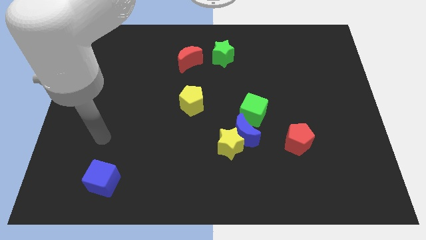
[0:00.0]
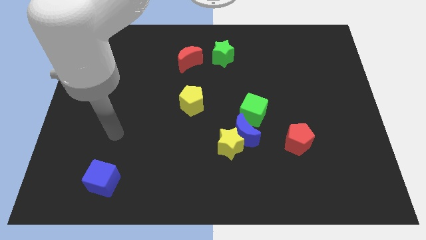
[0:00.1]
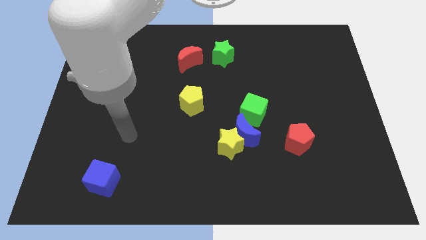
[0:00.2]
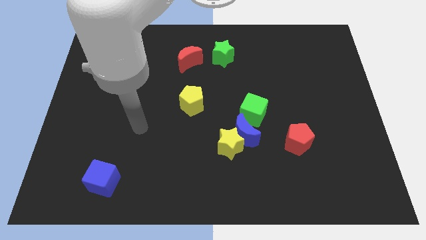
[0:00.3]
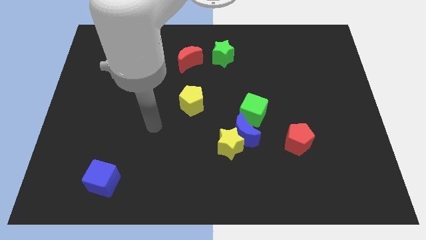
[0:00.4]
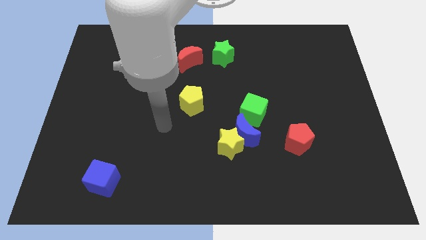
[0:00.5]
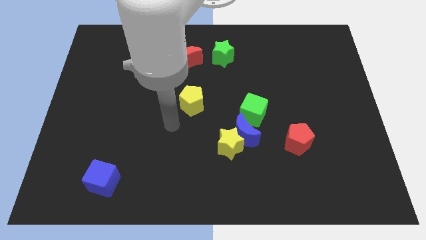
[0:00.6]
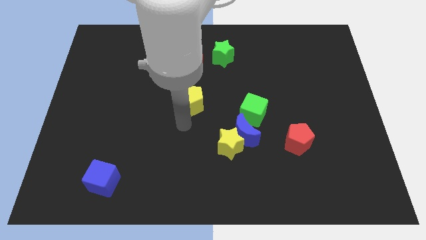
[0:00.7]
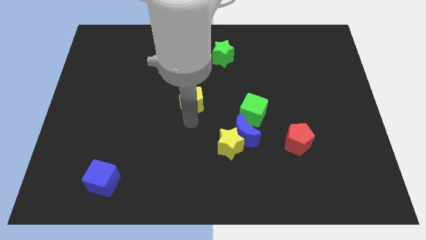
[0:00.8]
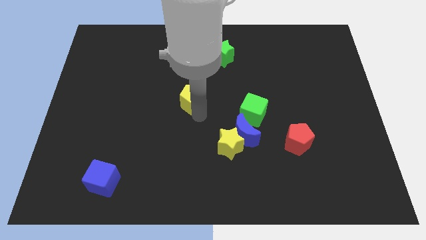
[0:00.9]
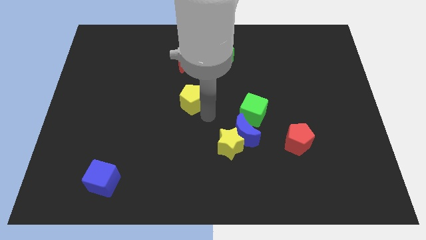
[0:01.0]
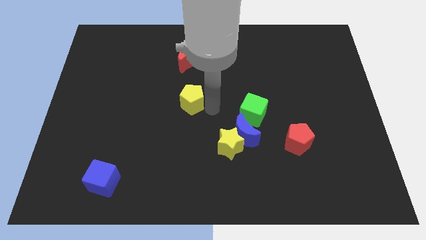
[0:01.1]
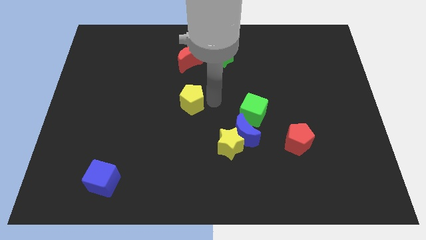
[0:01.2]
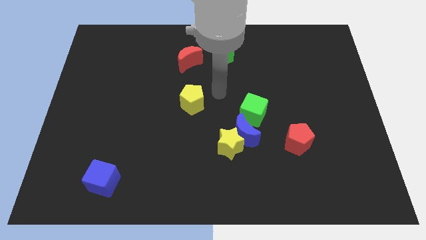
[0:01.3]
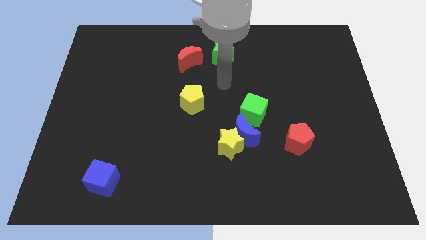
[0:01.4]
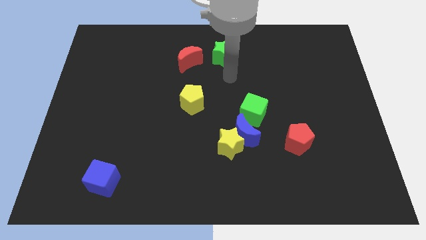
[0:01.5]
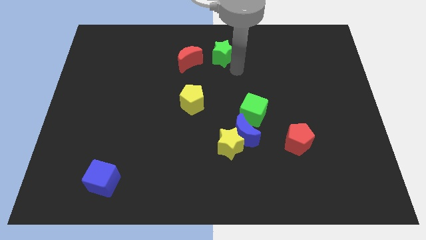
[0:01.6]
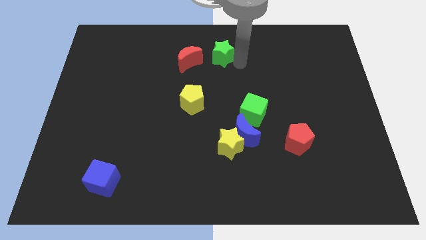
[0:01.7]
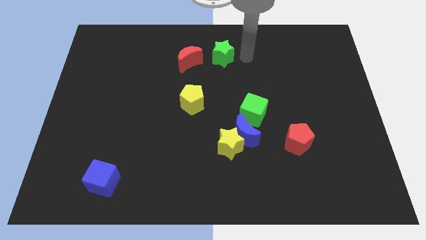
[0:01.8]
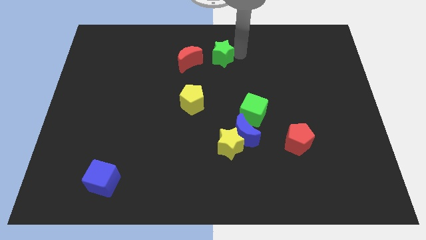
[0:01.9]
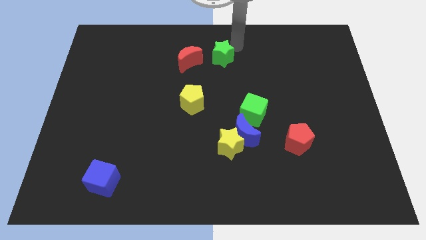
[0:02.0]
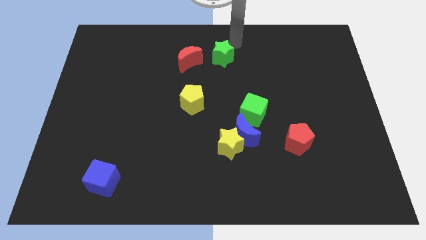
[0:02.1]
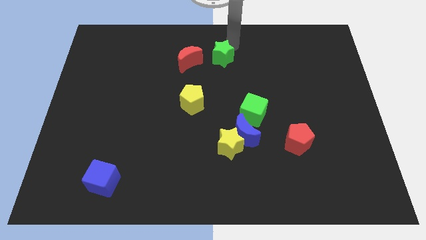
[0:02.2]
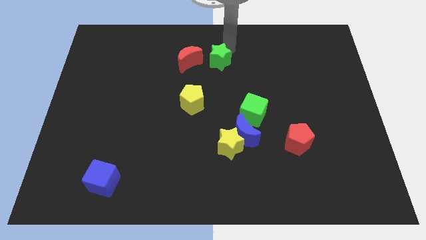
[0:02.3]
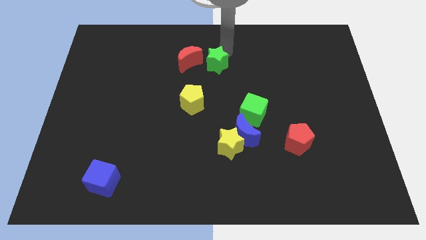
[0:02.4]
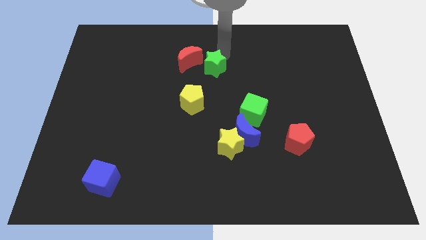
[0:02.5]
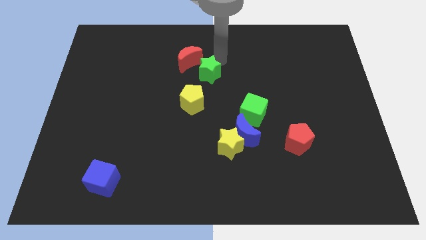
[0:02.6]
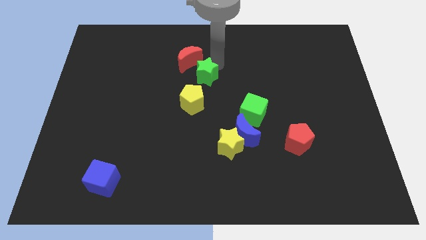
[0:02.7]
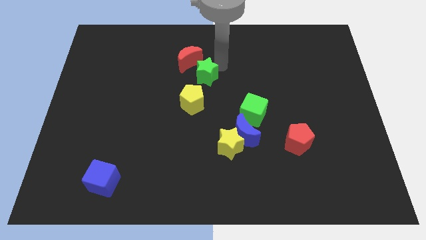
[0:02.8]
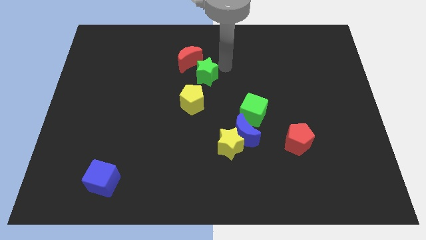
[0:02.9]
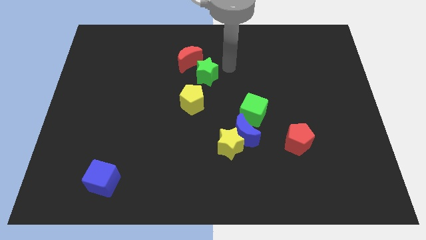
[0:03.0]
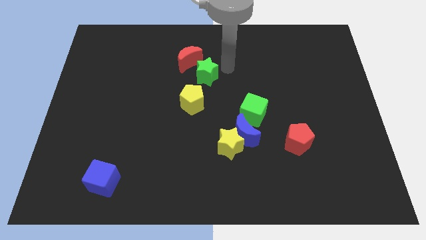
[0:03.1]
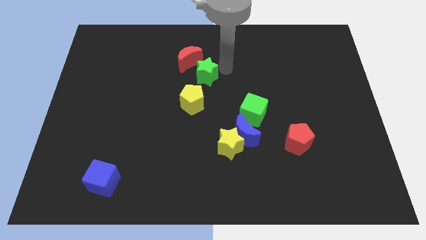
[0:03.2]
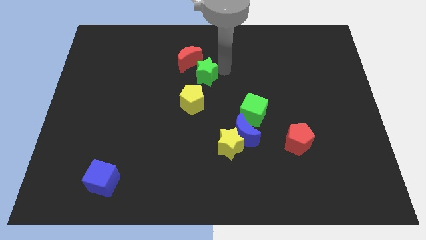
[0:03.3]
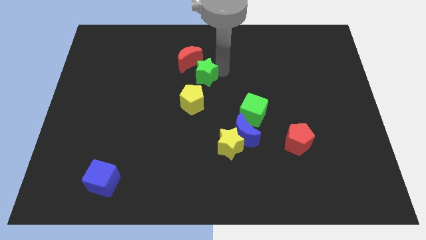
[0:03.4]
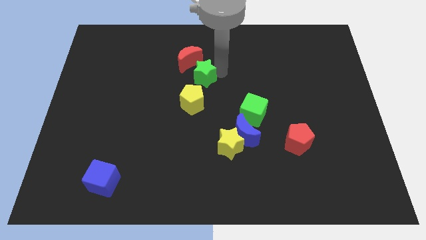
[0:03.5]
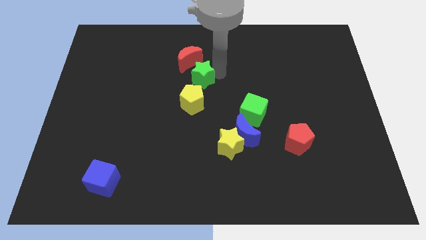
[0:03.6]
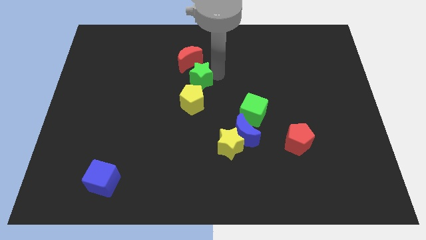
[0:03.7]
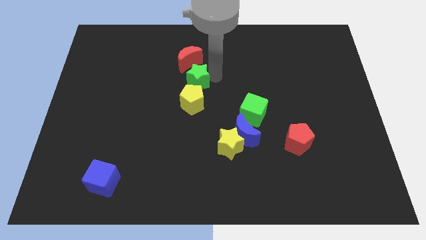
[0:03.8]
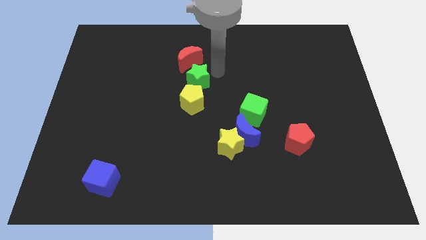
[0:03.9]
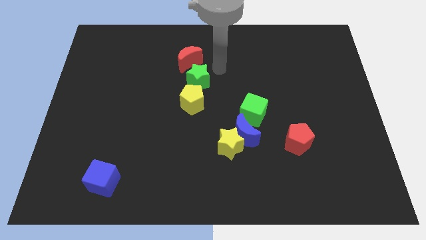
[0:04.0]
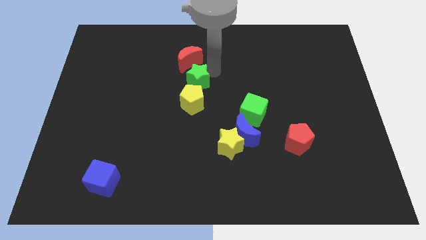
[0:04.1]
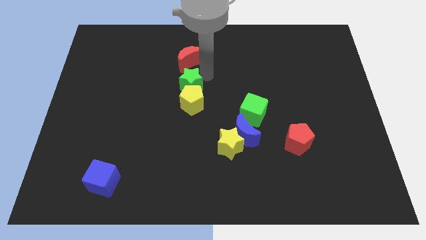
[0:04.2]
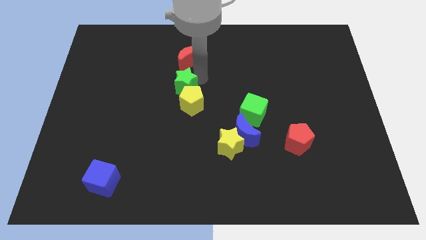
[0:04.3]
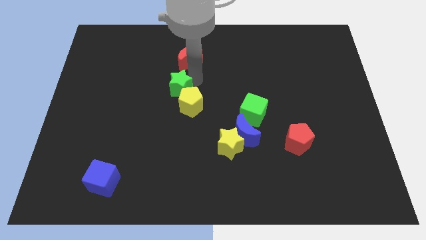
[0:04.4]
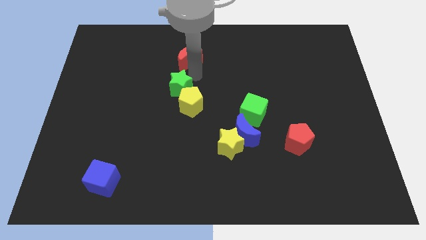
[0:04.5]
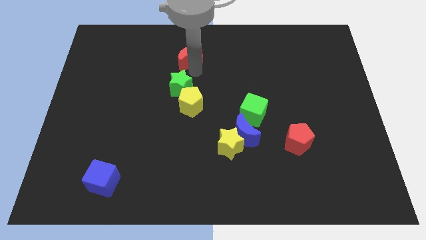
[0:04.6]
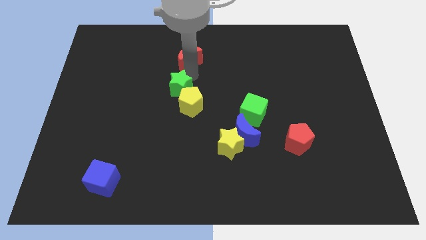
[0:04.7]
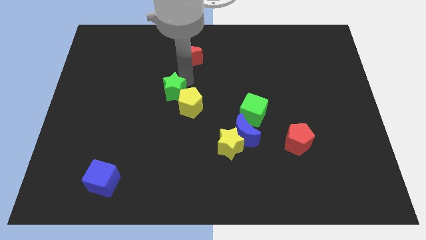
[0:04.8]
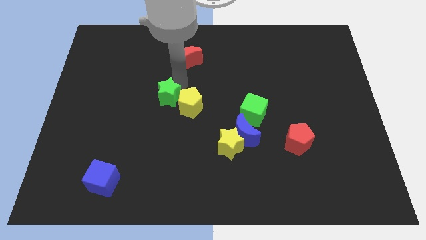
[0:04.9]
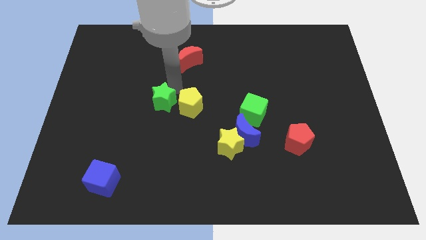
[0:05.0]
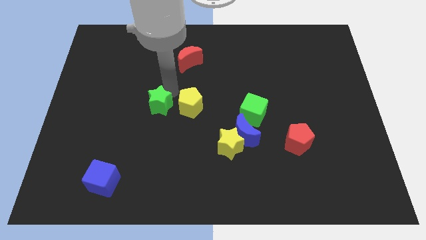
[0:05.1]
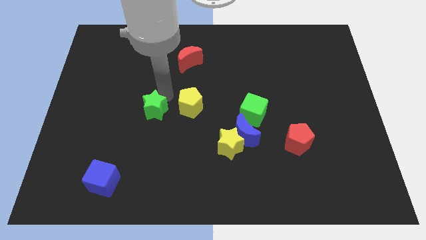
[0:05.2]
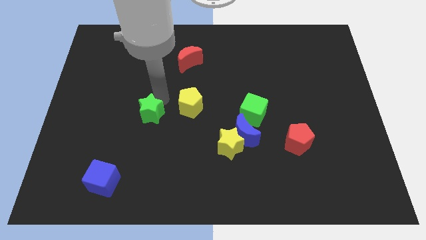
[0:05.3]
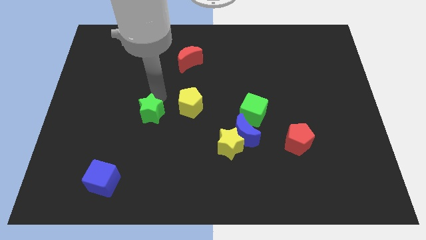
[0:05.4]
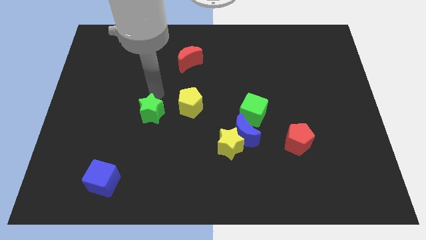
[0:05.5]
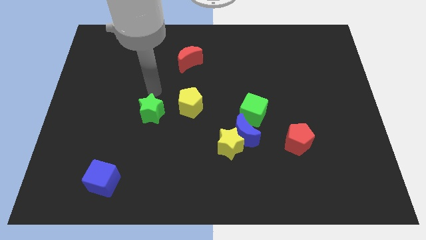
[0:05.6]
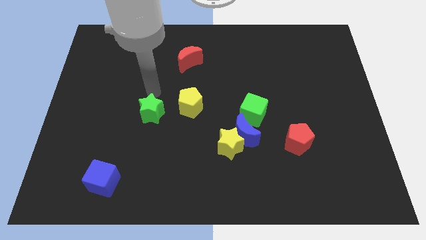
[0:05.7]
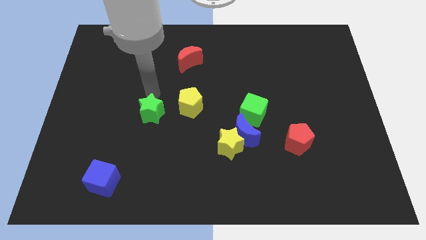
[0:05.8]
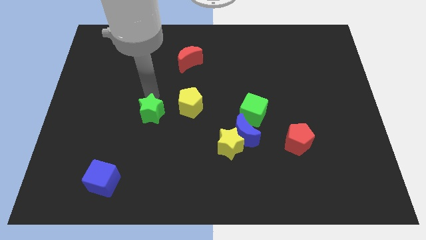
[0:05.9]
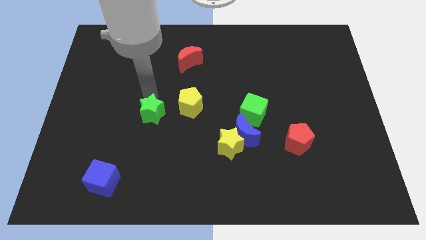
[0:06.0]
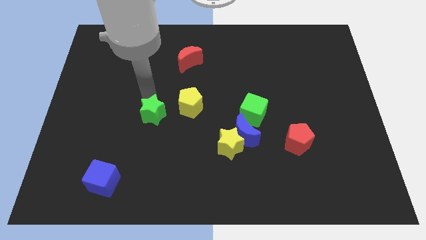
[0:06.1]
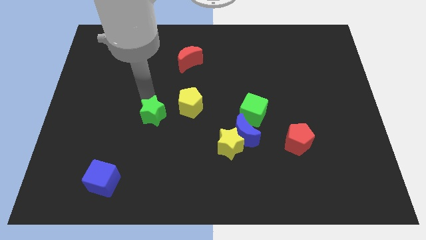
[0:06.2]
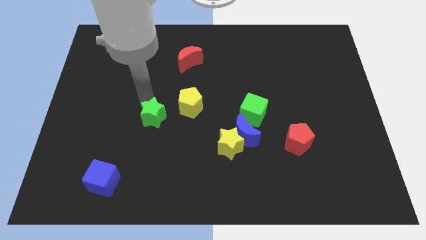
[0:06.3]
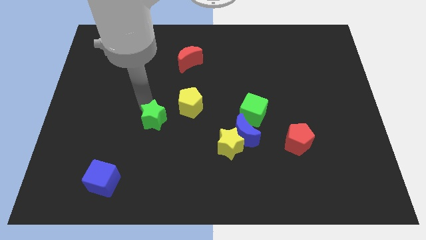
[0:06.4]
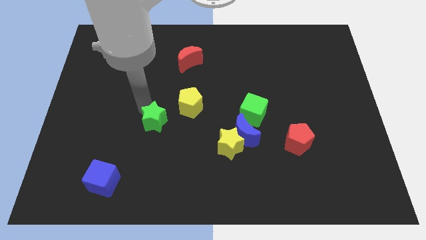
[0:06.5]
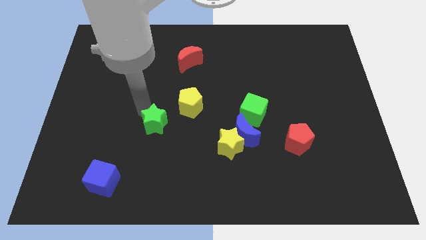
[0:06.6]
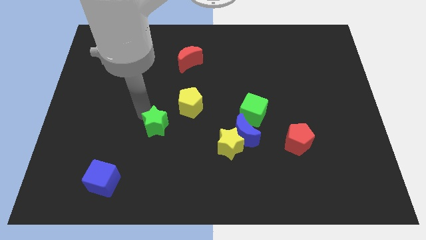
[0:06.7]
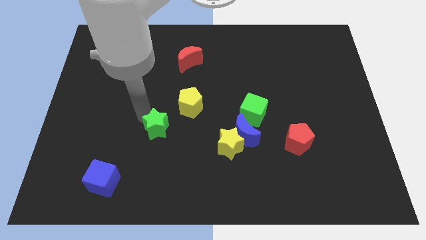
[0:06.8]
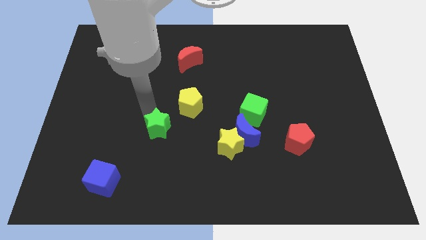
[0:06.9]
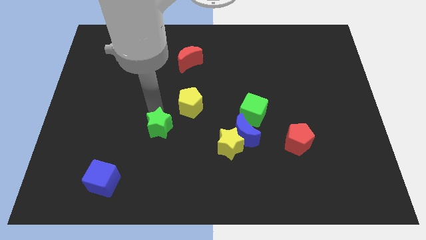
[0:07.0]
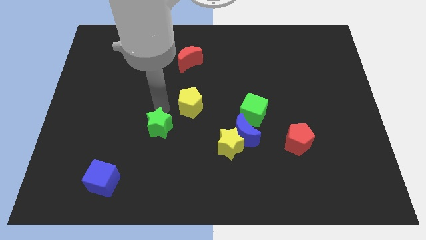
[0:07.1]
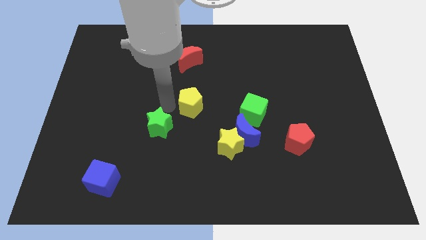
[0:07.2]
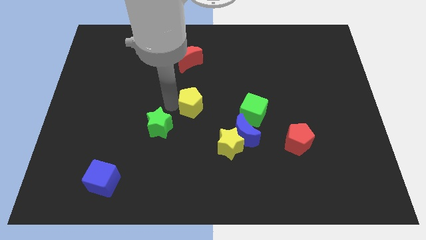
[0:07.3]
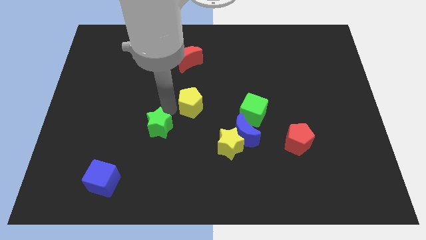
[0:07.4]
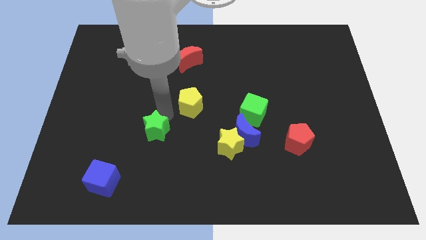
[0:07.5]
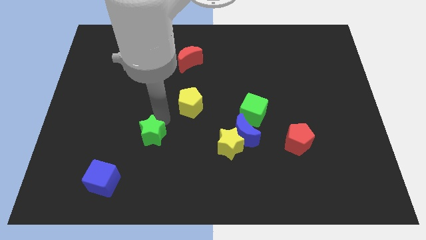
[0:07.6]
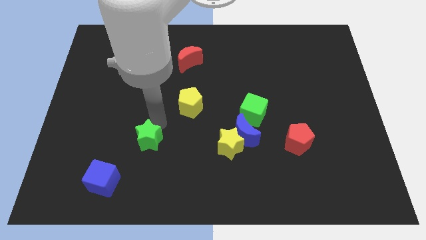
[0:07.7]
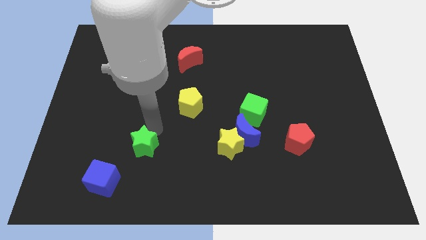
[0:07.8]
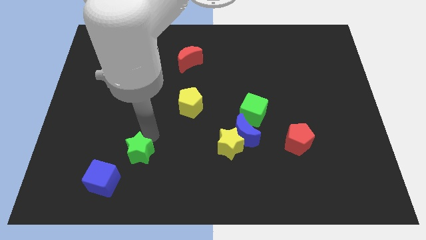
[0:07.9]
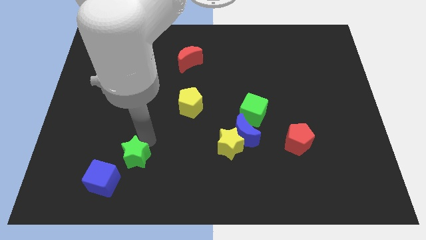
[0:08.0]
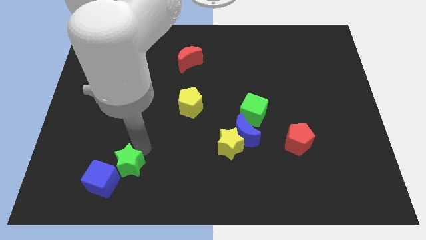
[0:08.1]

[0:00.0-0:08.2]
push the green star towards the blue cube

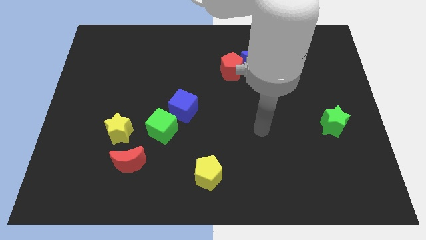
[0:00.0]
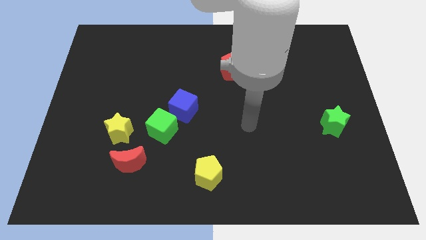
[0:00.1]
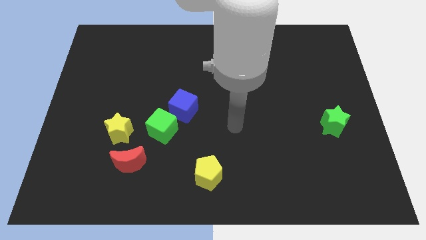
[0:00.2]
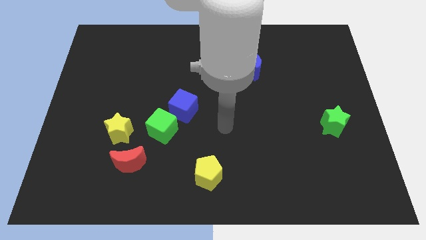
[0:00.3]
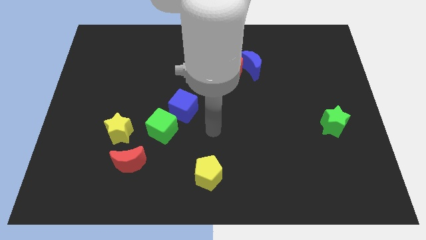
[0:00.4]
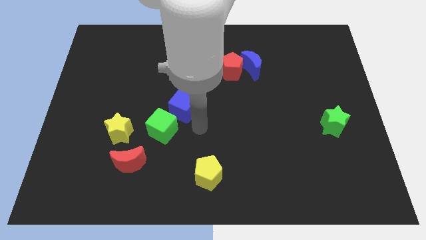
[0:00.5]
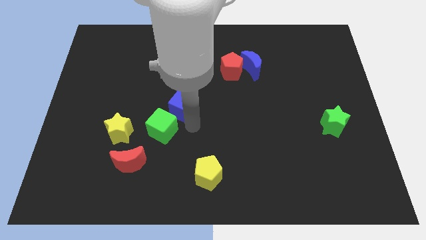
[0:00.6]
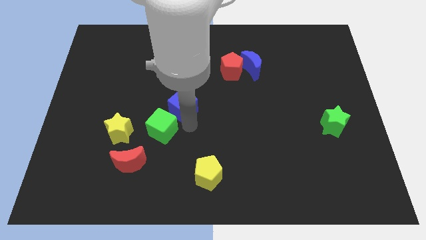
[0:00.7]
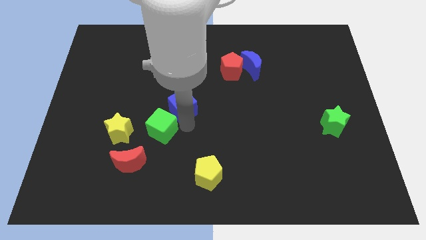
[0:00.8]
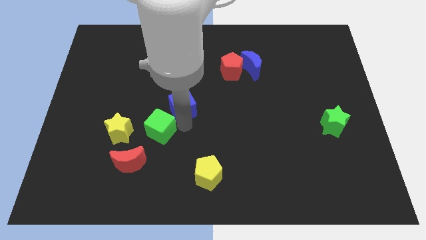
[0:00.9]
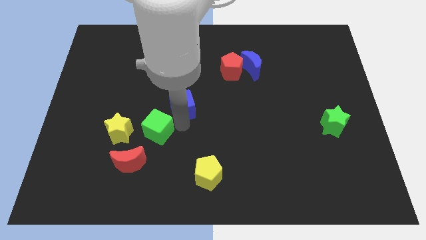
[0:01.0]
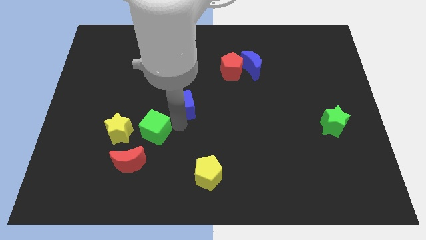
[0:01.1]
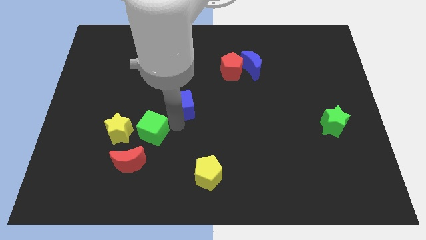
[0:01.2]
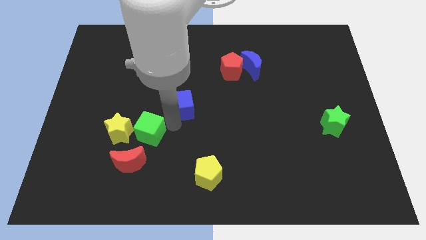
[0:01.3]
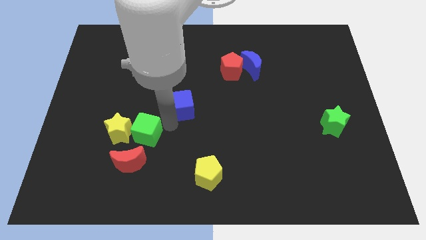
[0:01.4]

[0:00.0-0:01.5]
move the green cube close to the yellow star
